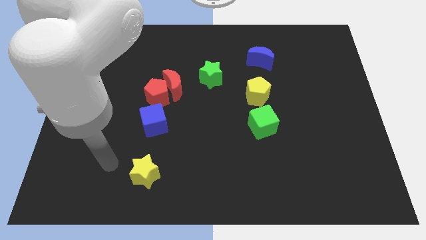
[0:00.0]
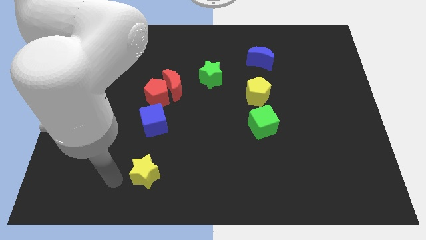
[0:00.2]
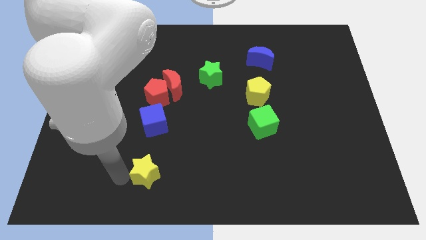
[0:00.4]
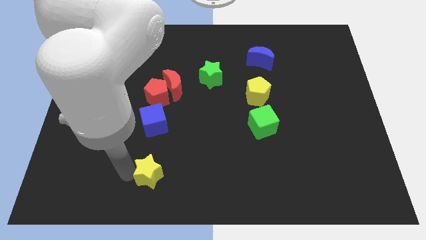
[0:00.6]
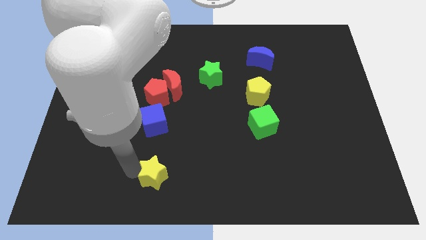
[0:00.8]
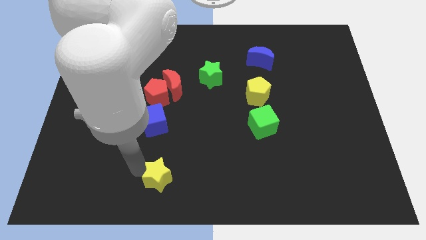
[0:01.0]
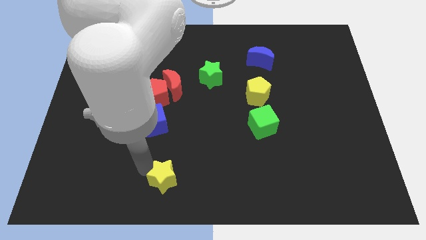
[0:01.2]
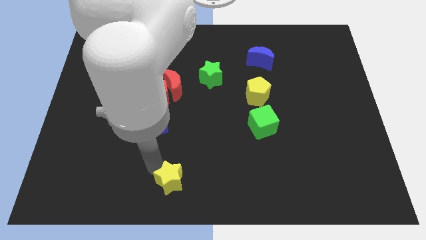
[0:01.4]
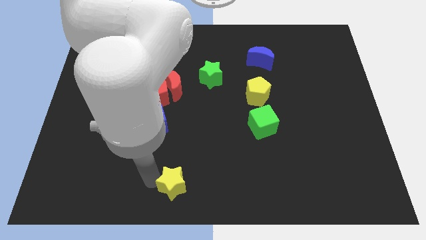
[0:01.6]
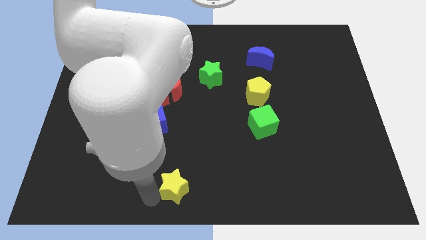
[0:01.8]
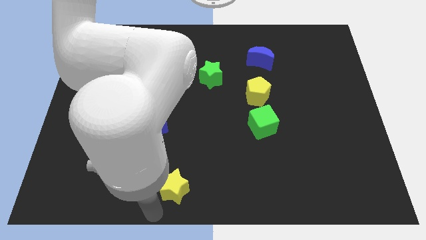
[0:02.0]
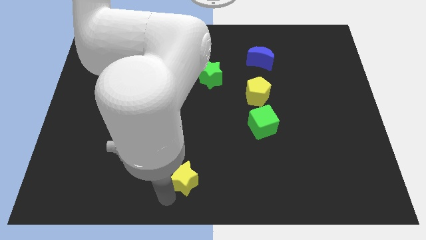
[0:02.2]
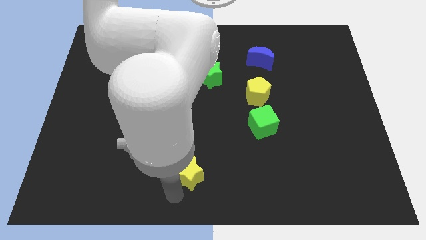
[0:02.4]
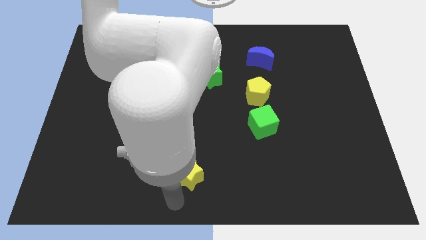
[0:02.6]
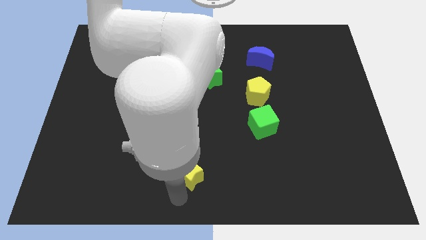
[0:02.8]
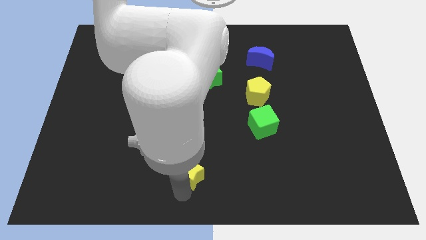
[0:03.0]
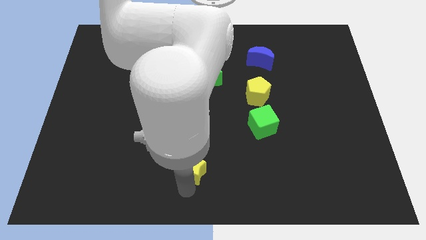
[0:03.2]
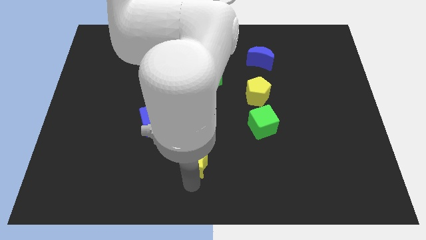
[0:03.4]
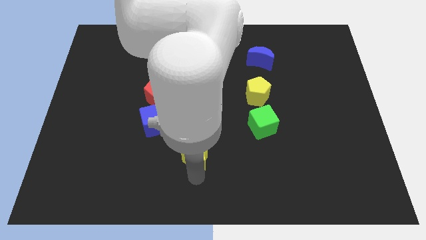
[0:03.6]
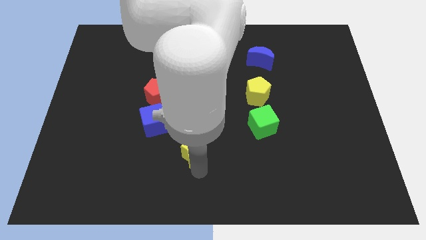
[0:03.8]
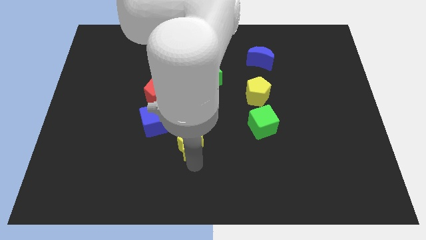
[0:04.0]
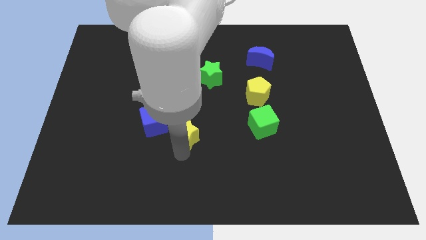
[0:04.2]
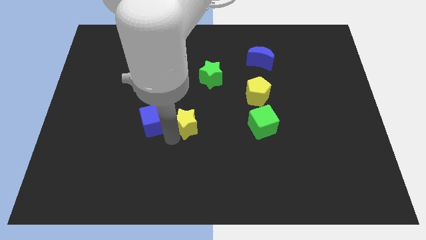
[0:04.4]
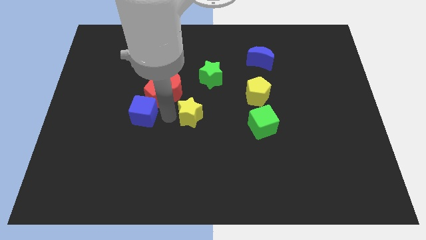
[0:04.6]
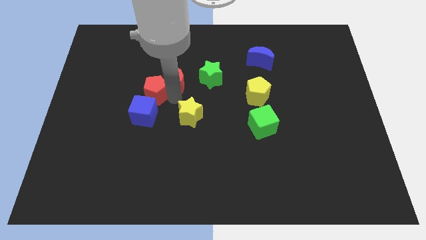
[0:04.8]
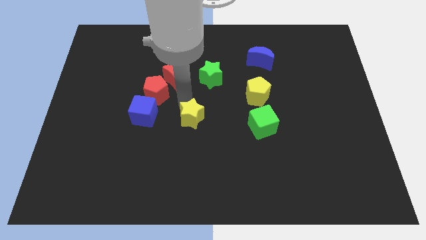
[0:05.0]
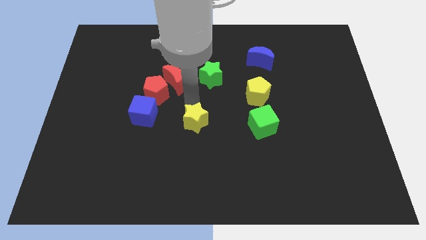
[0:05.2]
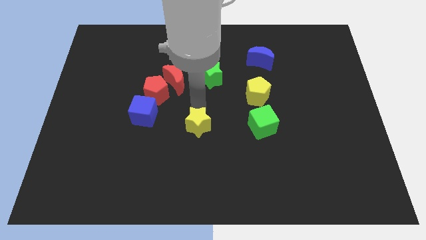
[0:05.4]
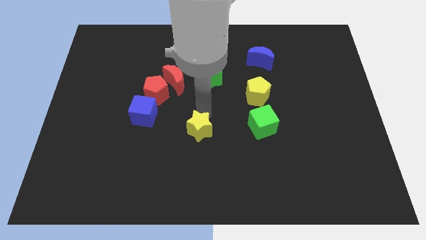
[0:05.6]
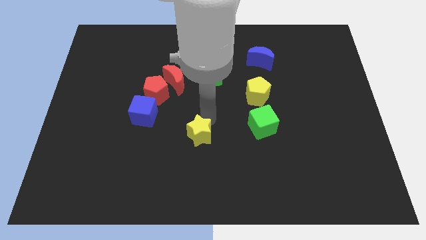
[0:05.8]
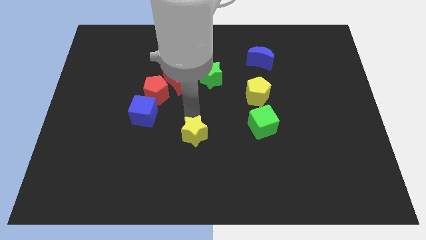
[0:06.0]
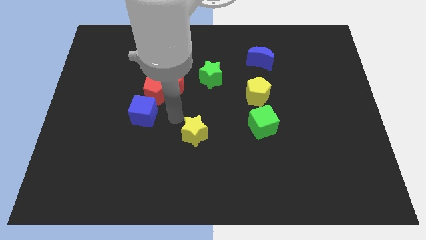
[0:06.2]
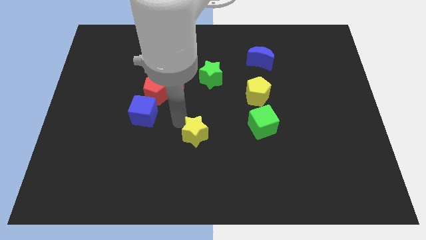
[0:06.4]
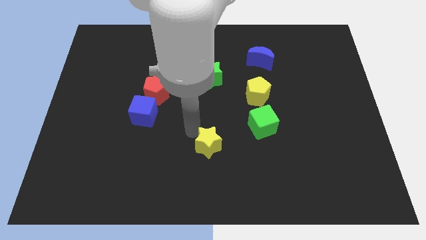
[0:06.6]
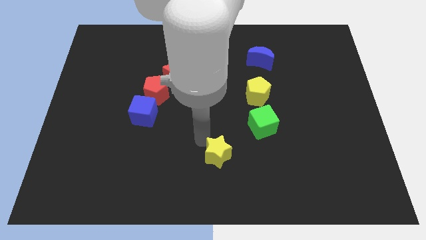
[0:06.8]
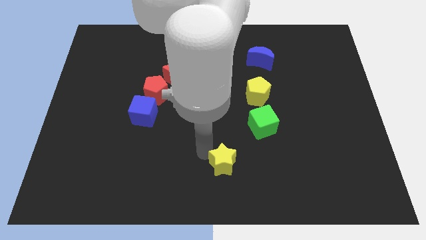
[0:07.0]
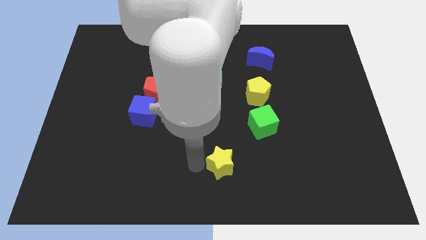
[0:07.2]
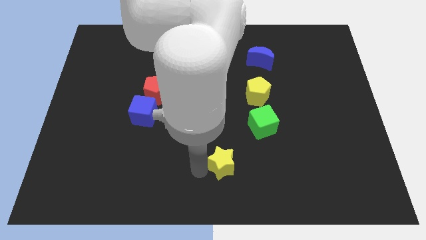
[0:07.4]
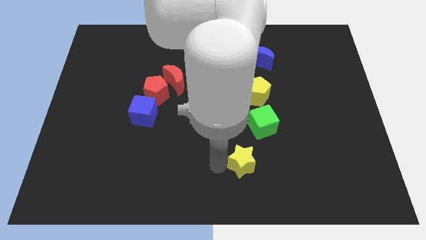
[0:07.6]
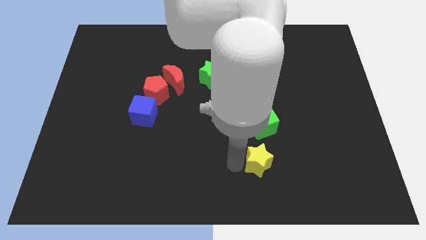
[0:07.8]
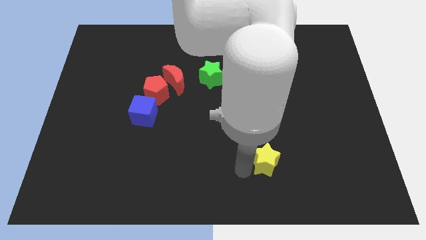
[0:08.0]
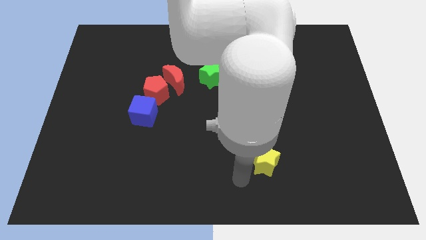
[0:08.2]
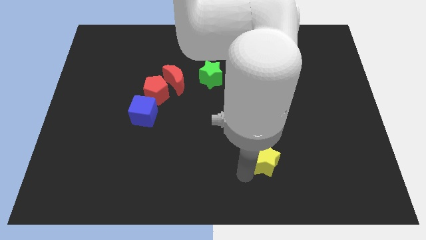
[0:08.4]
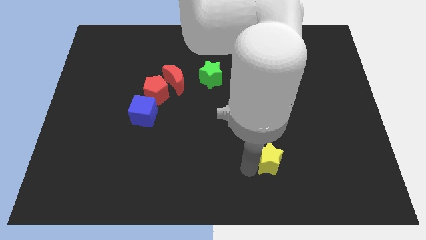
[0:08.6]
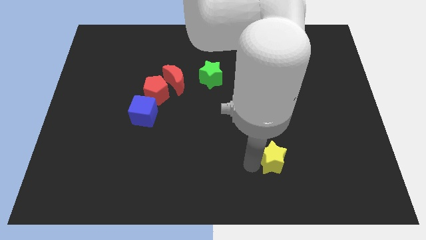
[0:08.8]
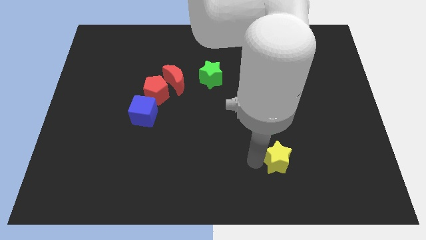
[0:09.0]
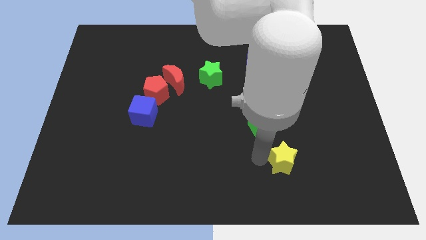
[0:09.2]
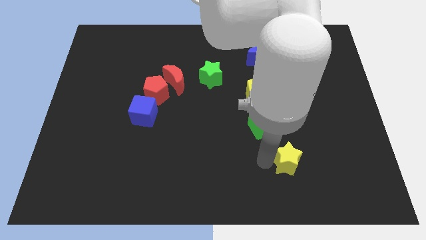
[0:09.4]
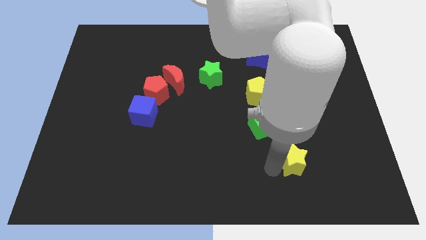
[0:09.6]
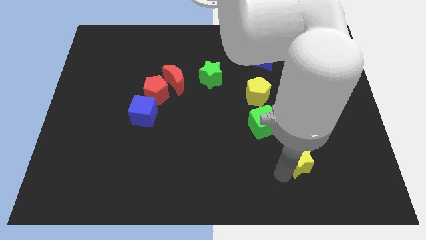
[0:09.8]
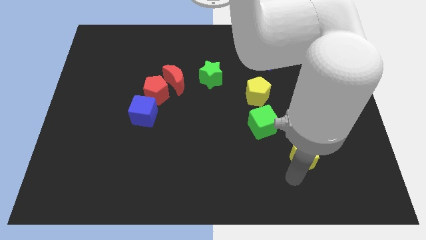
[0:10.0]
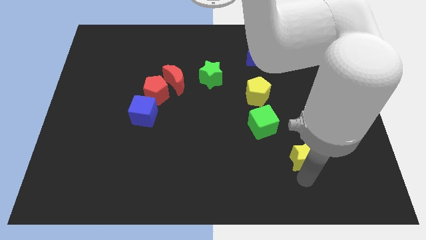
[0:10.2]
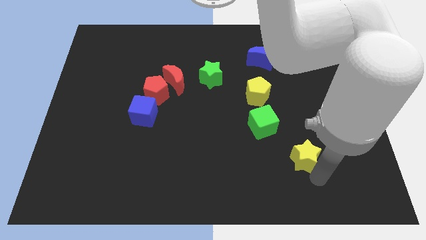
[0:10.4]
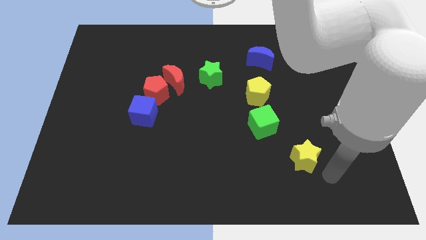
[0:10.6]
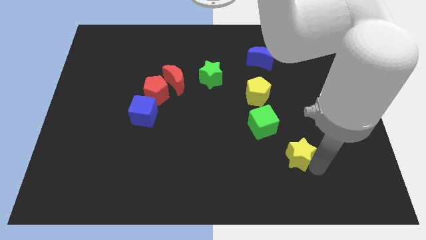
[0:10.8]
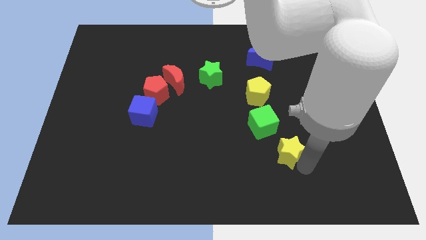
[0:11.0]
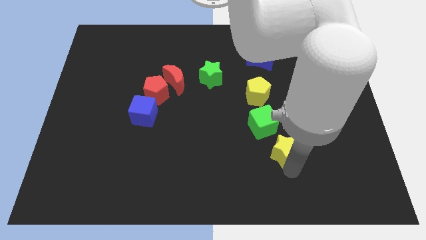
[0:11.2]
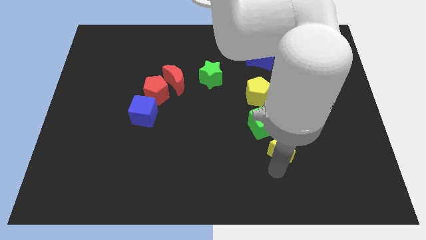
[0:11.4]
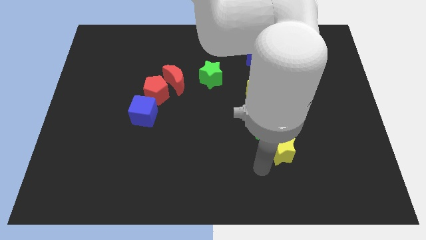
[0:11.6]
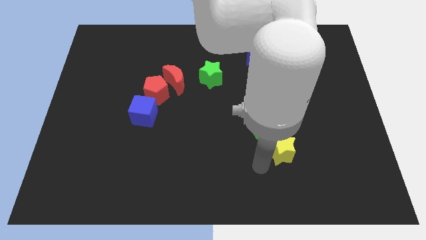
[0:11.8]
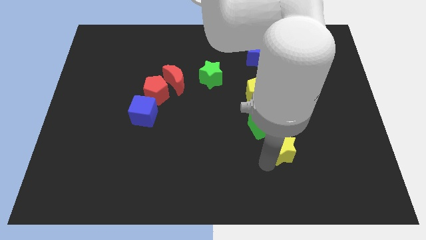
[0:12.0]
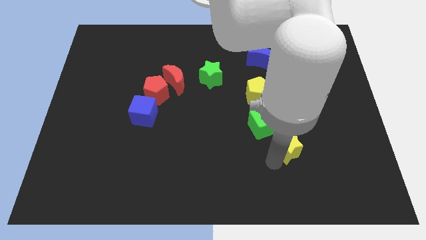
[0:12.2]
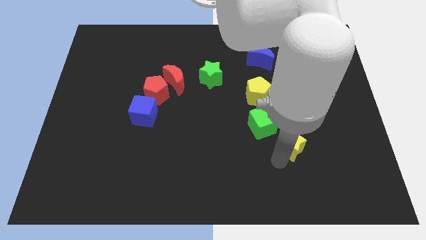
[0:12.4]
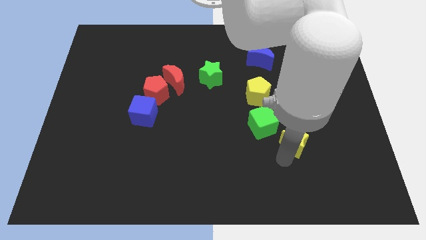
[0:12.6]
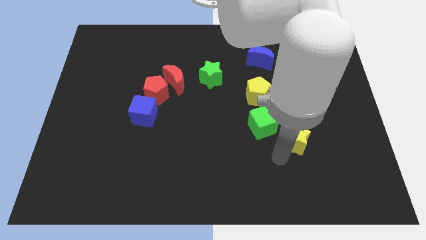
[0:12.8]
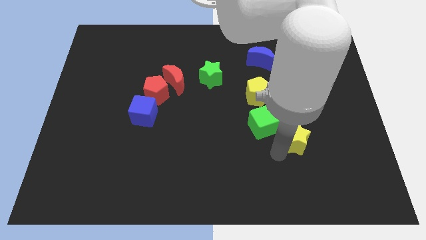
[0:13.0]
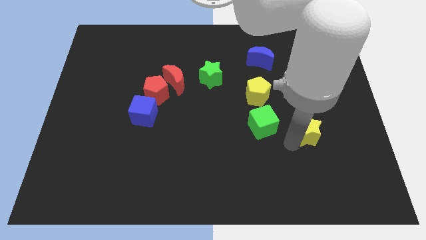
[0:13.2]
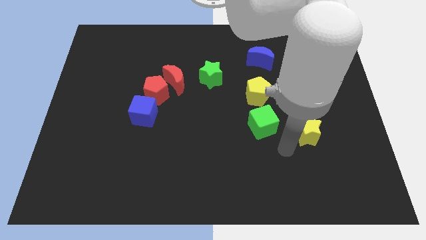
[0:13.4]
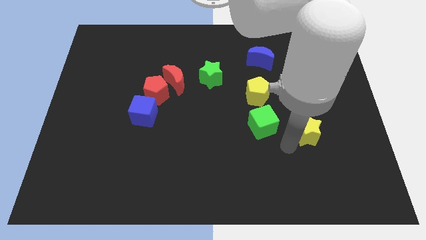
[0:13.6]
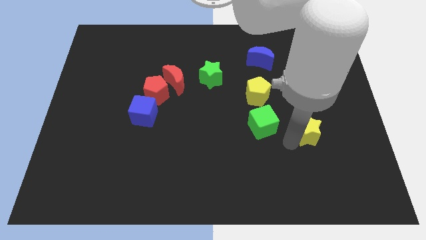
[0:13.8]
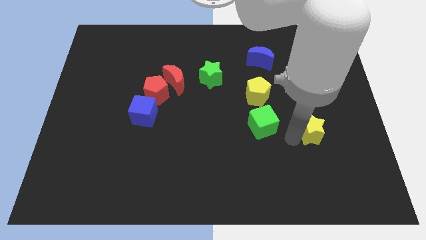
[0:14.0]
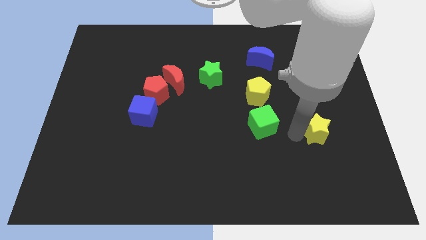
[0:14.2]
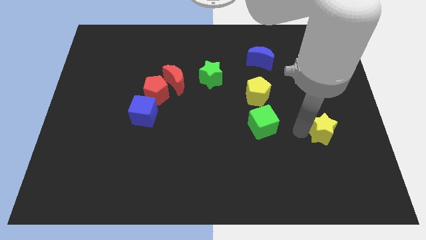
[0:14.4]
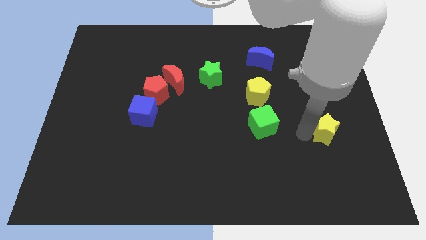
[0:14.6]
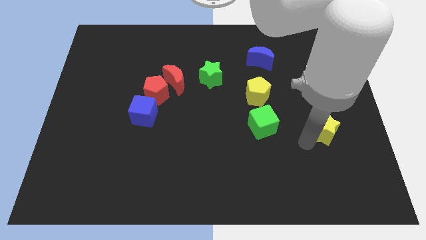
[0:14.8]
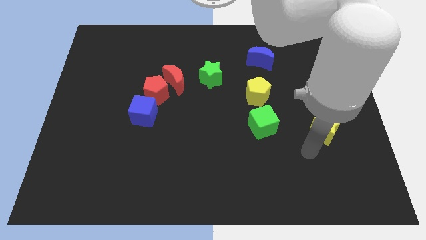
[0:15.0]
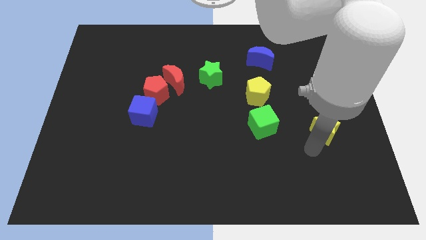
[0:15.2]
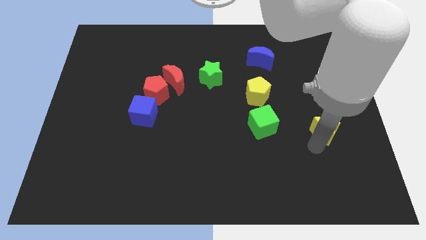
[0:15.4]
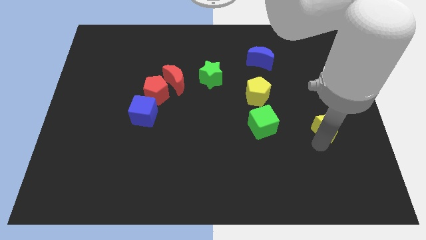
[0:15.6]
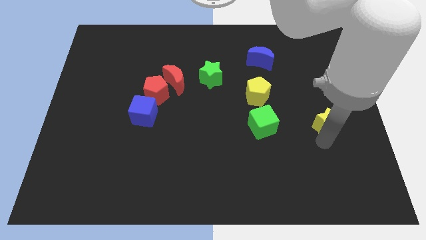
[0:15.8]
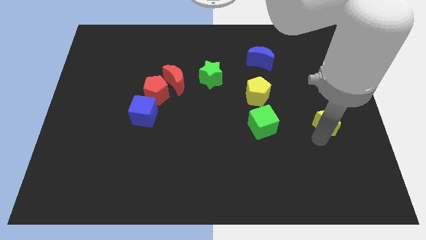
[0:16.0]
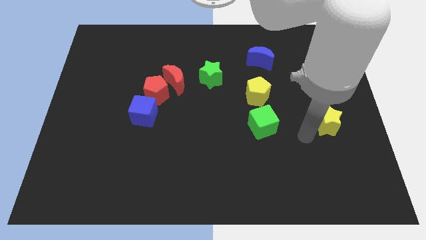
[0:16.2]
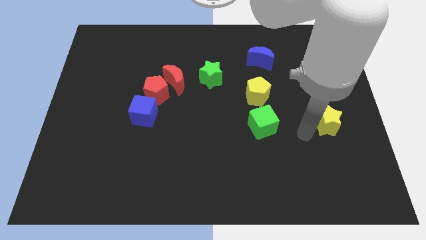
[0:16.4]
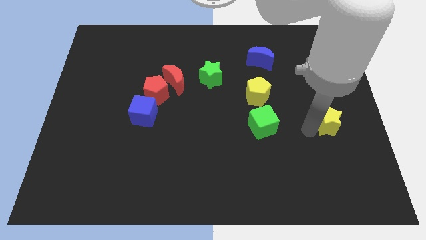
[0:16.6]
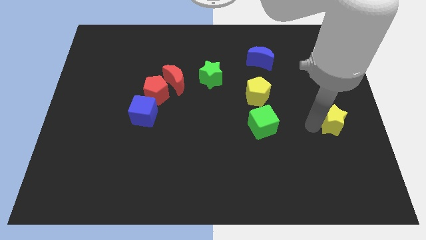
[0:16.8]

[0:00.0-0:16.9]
slide the yellow star to the right side of the board
